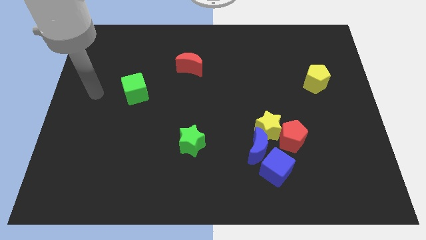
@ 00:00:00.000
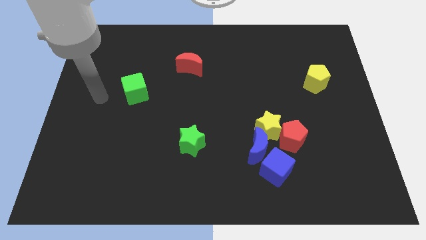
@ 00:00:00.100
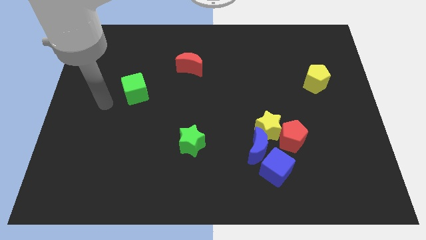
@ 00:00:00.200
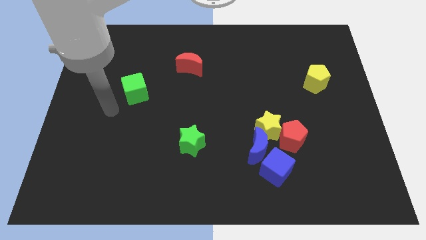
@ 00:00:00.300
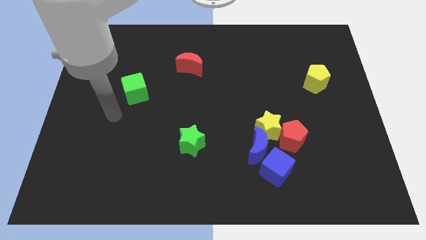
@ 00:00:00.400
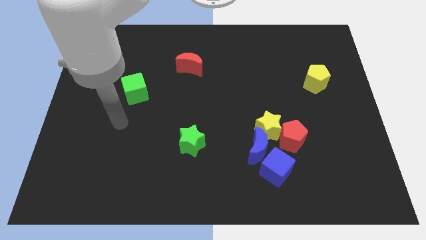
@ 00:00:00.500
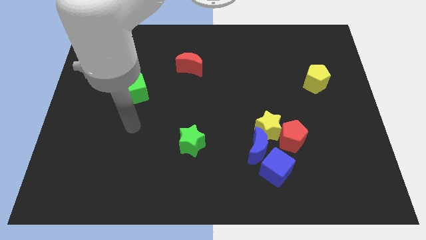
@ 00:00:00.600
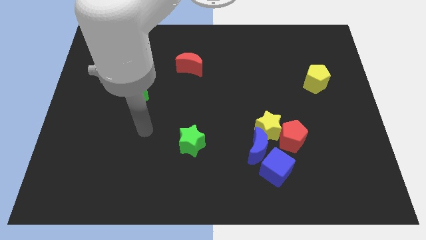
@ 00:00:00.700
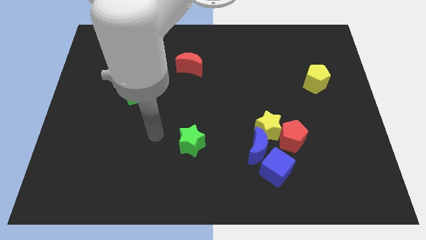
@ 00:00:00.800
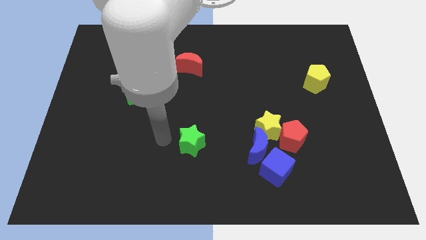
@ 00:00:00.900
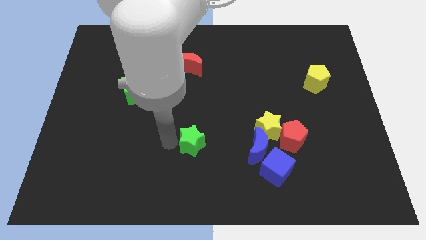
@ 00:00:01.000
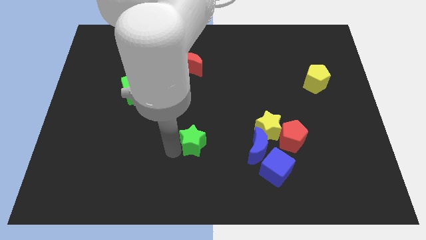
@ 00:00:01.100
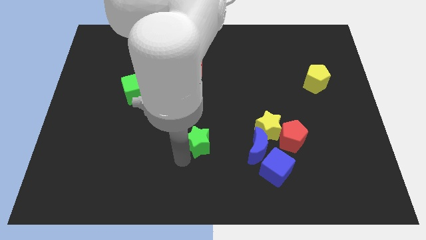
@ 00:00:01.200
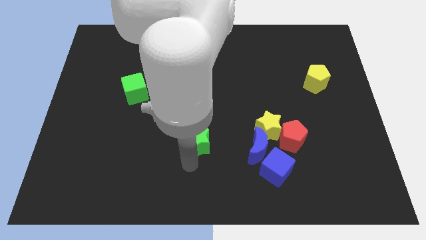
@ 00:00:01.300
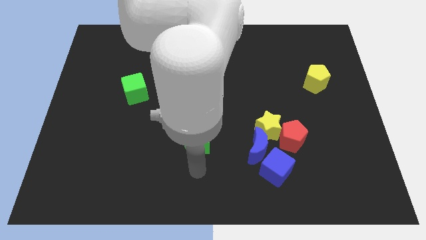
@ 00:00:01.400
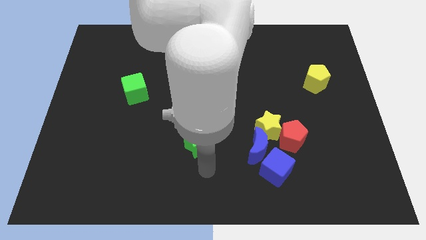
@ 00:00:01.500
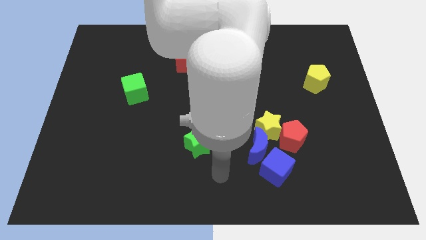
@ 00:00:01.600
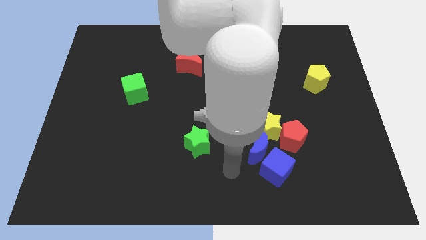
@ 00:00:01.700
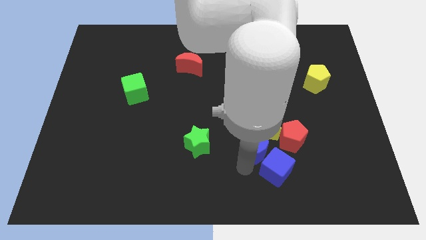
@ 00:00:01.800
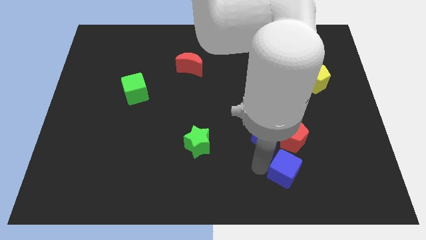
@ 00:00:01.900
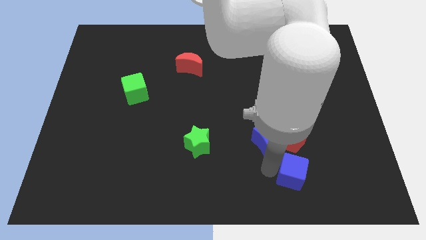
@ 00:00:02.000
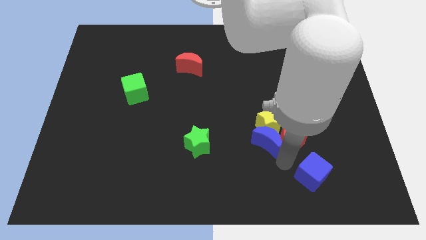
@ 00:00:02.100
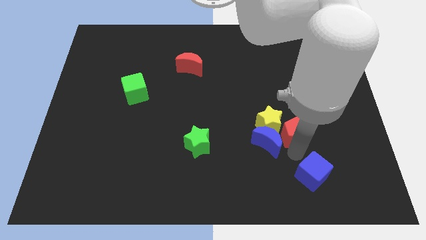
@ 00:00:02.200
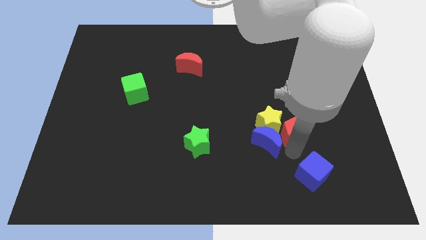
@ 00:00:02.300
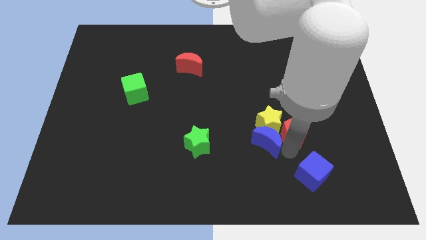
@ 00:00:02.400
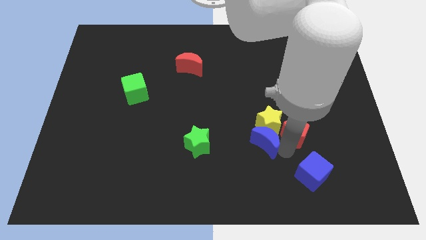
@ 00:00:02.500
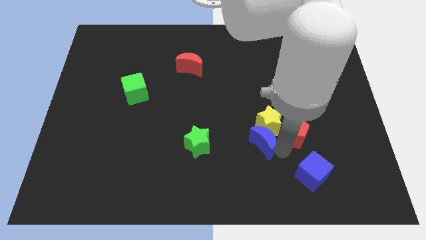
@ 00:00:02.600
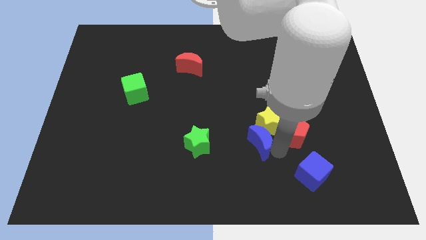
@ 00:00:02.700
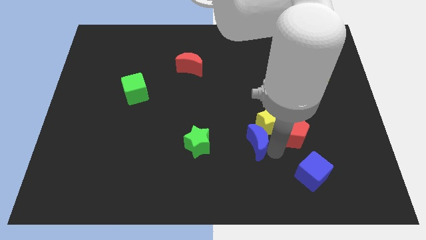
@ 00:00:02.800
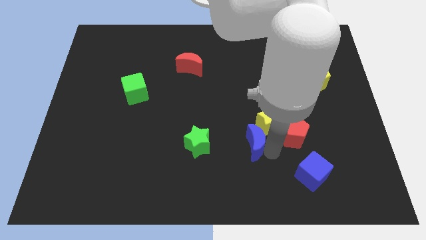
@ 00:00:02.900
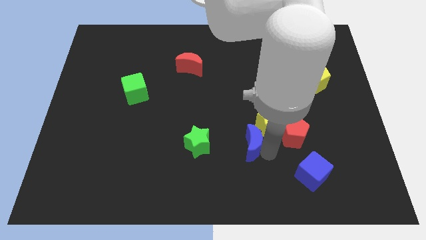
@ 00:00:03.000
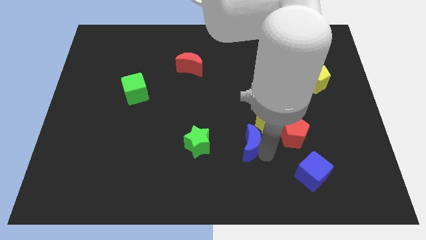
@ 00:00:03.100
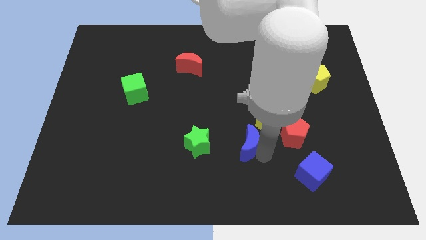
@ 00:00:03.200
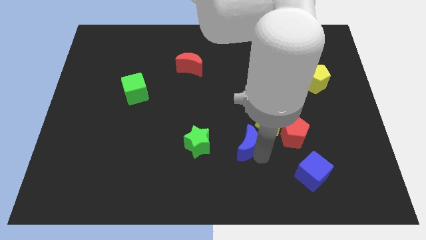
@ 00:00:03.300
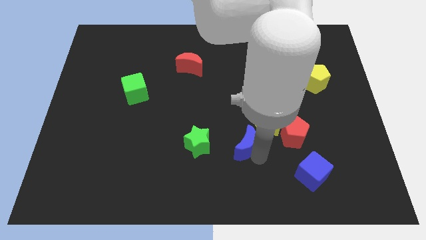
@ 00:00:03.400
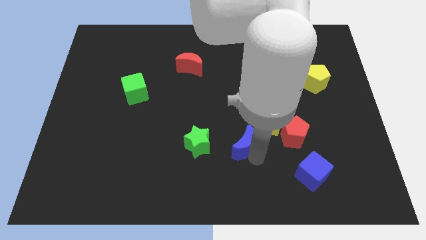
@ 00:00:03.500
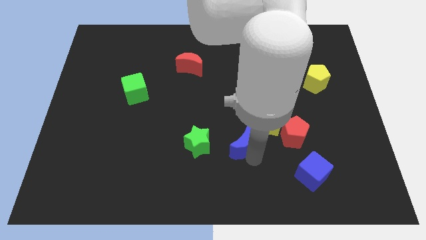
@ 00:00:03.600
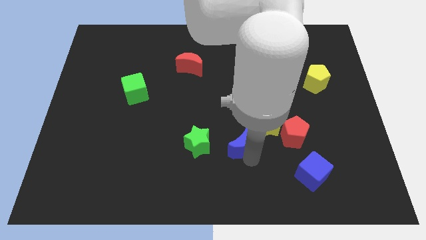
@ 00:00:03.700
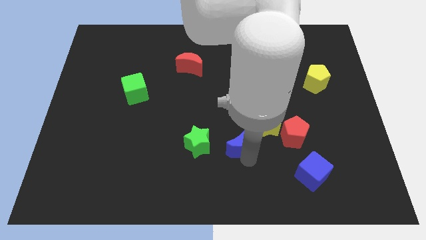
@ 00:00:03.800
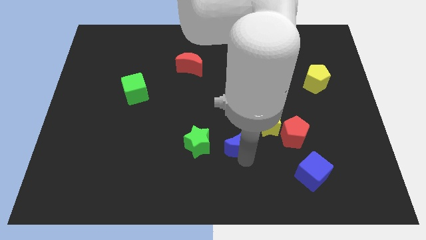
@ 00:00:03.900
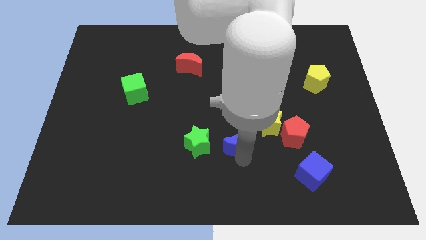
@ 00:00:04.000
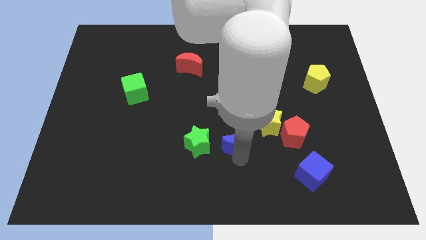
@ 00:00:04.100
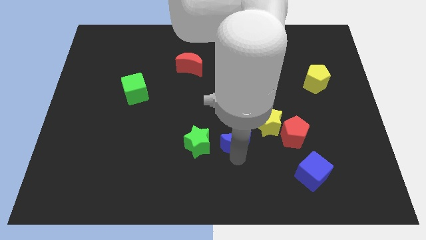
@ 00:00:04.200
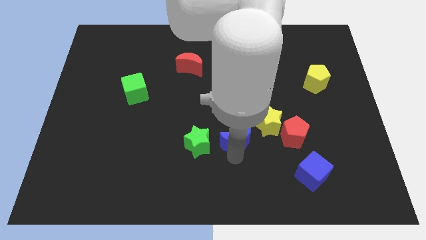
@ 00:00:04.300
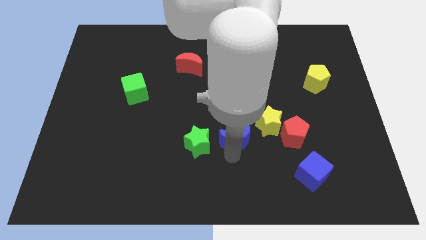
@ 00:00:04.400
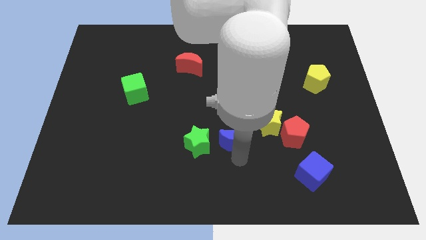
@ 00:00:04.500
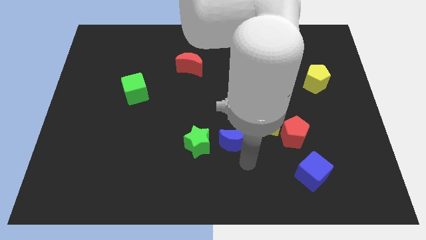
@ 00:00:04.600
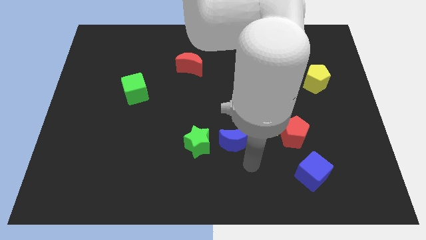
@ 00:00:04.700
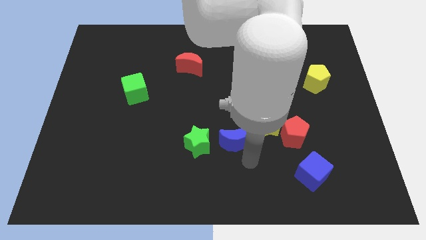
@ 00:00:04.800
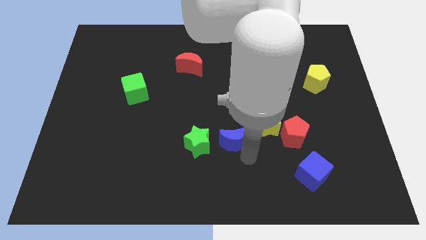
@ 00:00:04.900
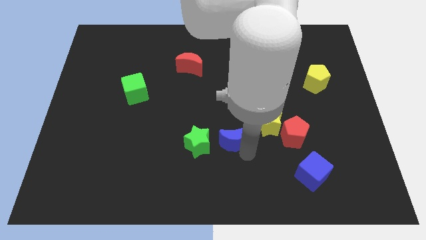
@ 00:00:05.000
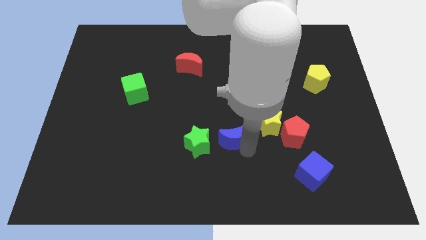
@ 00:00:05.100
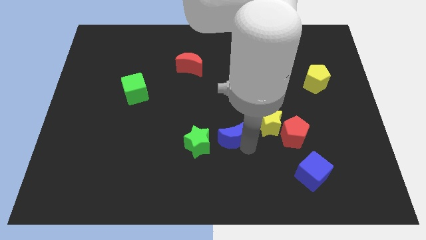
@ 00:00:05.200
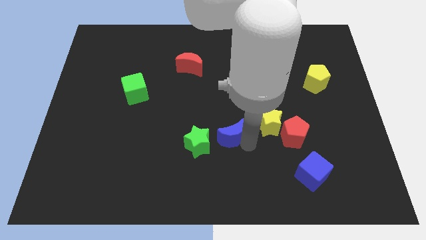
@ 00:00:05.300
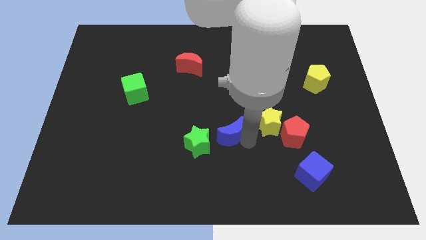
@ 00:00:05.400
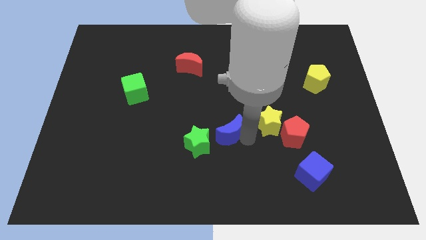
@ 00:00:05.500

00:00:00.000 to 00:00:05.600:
push the blue moon up and then to the left slightly

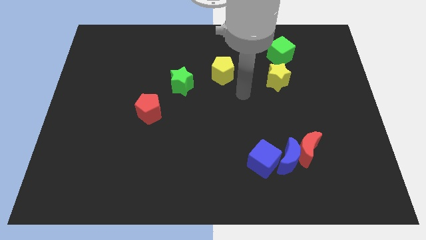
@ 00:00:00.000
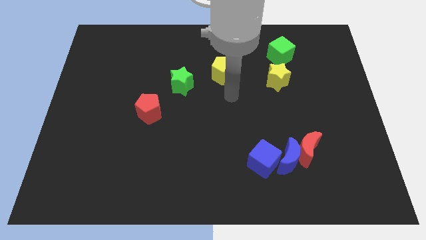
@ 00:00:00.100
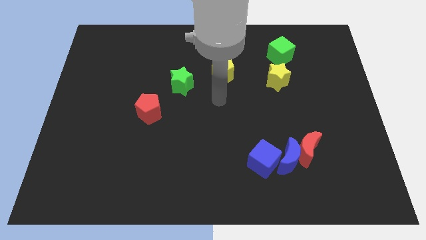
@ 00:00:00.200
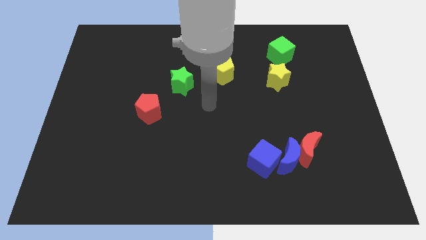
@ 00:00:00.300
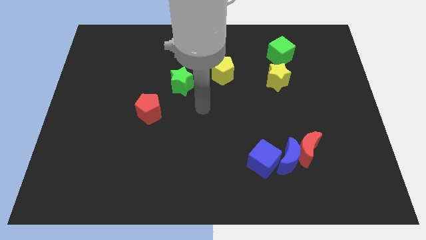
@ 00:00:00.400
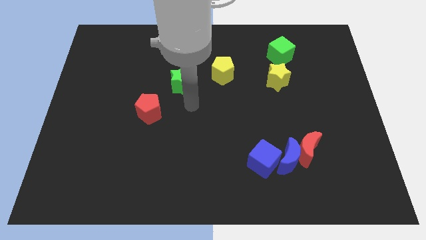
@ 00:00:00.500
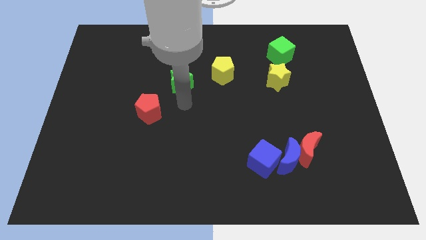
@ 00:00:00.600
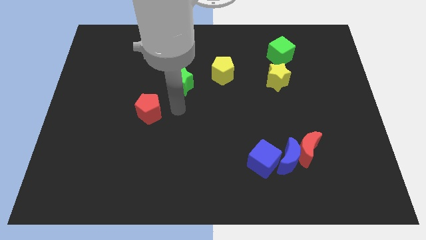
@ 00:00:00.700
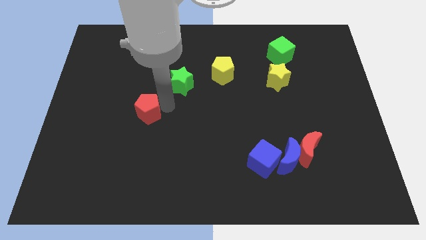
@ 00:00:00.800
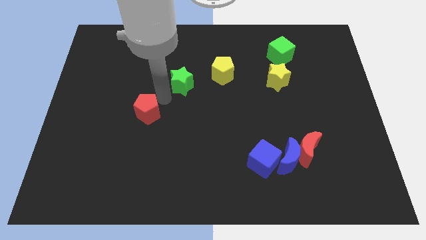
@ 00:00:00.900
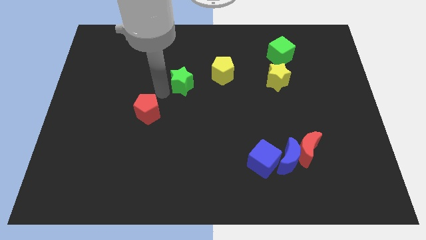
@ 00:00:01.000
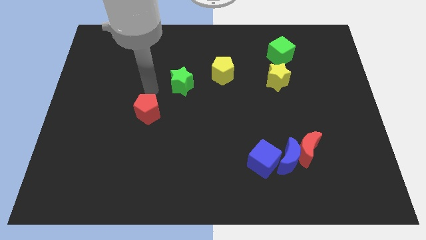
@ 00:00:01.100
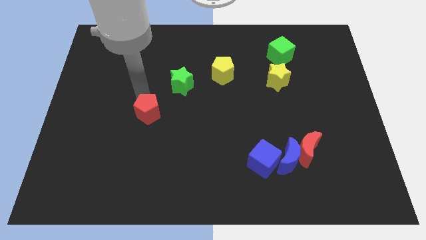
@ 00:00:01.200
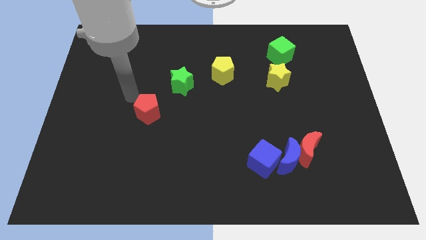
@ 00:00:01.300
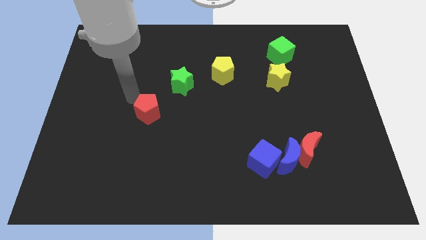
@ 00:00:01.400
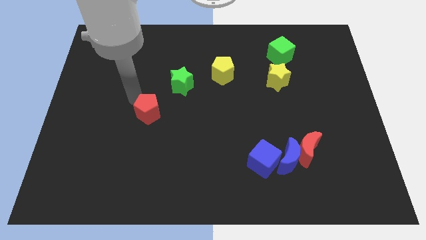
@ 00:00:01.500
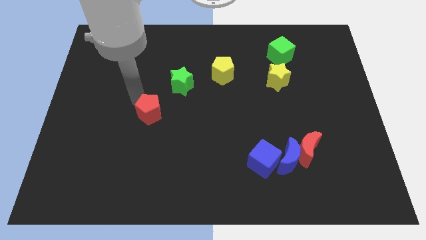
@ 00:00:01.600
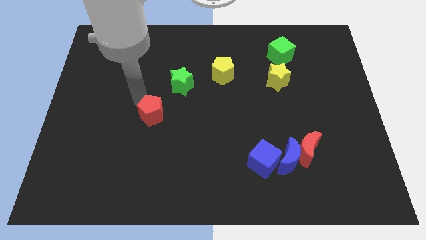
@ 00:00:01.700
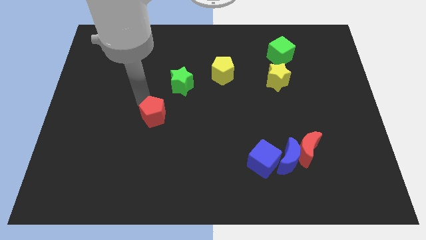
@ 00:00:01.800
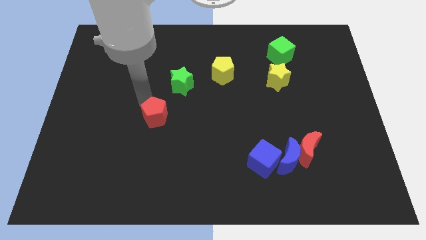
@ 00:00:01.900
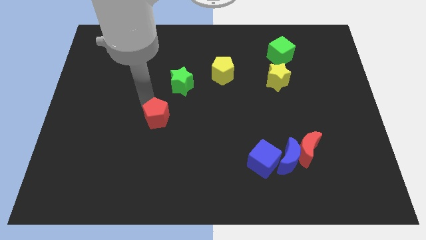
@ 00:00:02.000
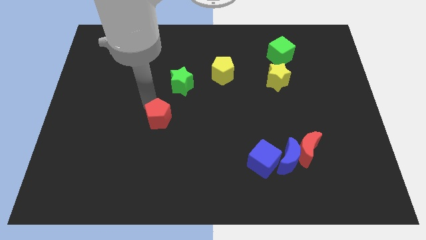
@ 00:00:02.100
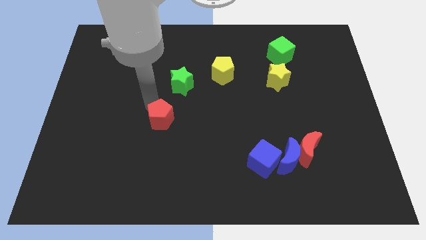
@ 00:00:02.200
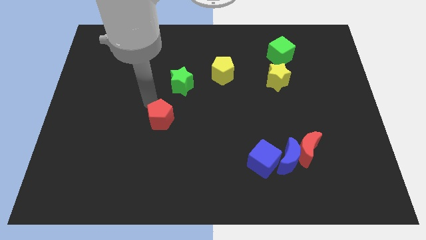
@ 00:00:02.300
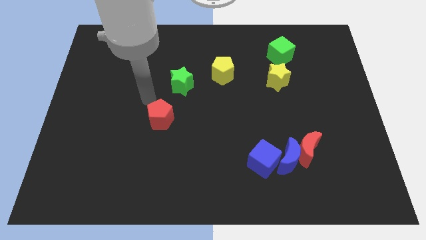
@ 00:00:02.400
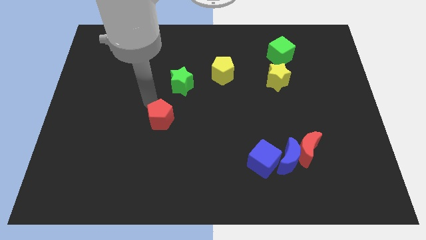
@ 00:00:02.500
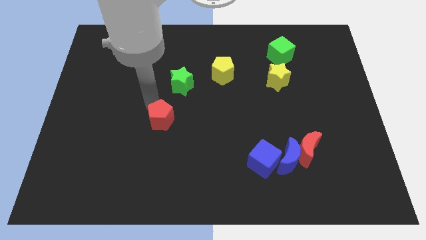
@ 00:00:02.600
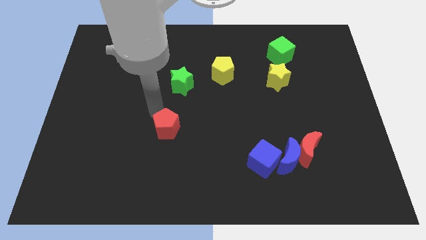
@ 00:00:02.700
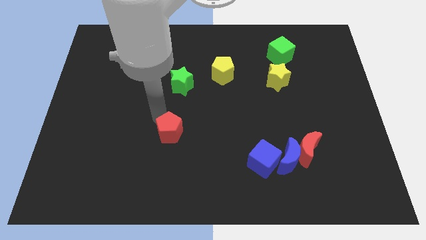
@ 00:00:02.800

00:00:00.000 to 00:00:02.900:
slide the red pentagon diagonally down and to the right somewhat
